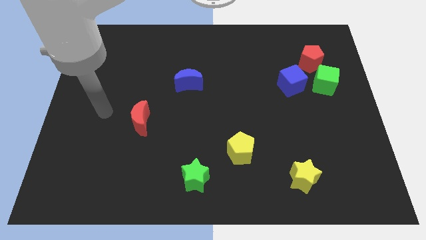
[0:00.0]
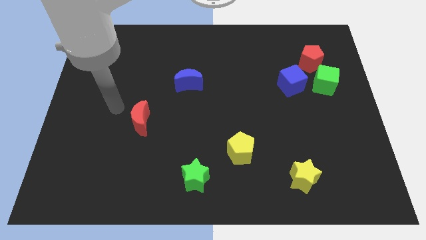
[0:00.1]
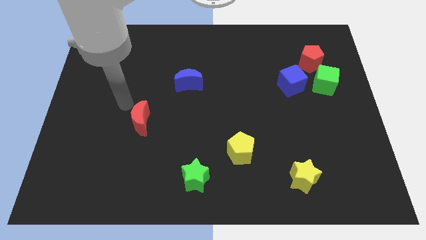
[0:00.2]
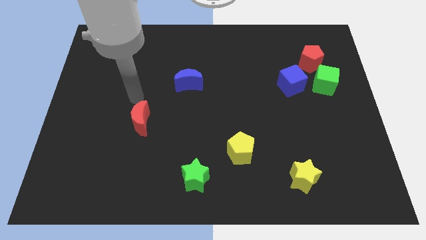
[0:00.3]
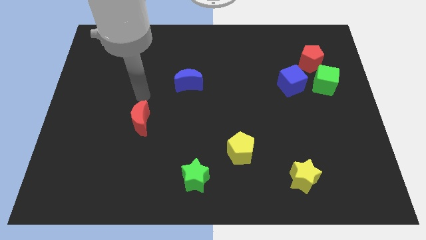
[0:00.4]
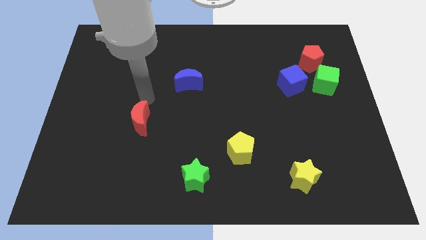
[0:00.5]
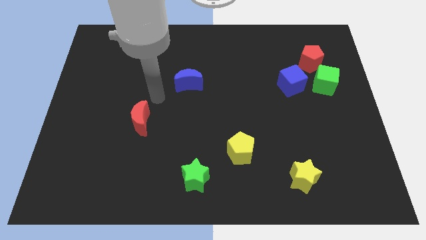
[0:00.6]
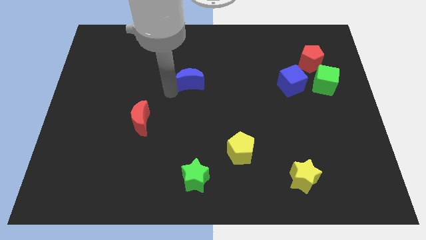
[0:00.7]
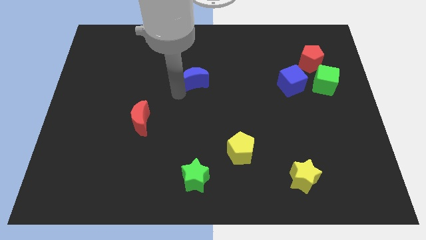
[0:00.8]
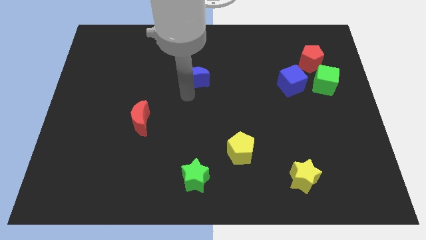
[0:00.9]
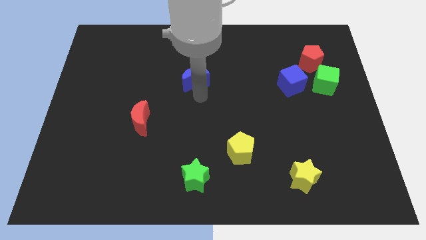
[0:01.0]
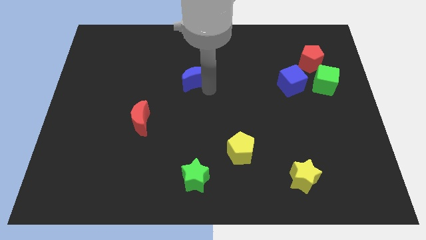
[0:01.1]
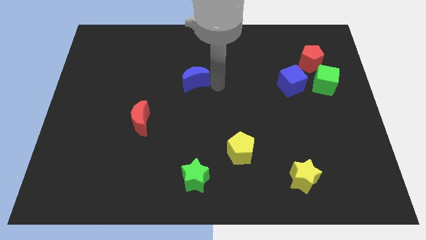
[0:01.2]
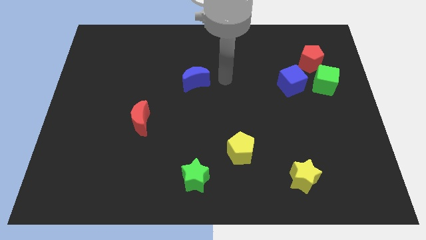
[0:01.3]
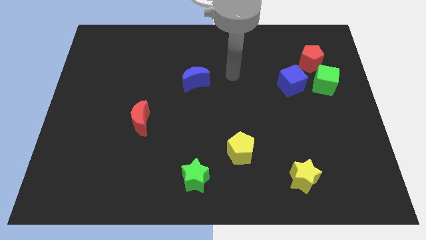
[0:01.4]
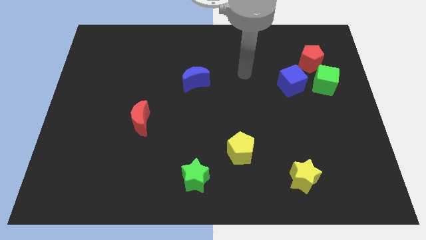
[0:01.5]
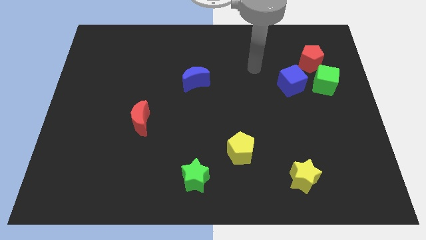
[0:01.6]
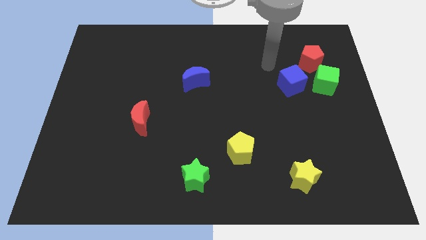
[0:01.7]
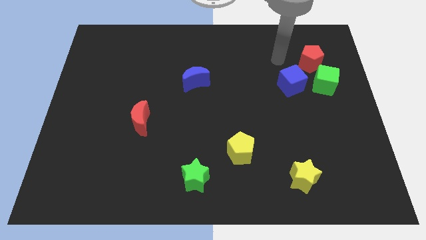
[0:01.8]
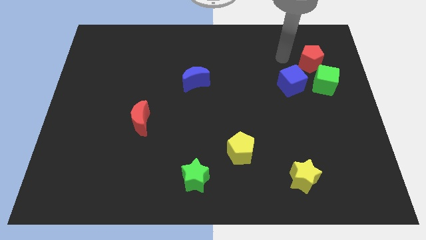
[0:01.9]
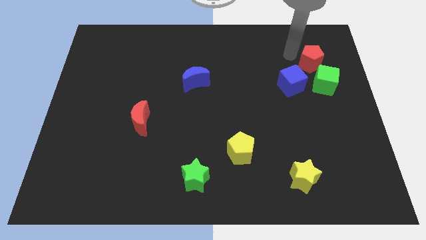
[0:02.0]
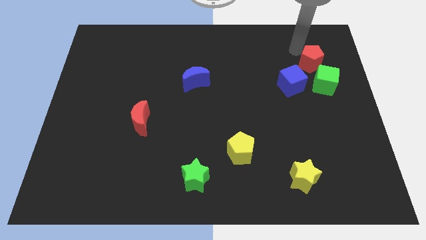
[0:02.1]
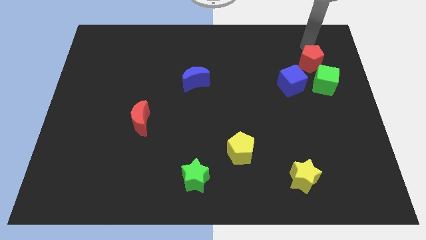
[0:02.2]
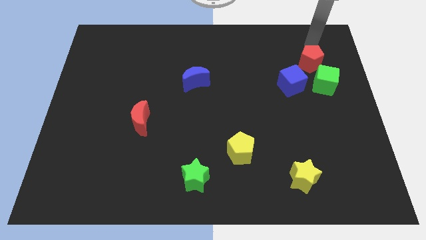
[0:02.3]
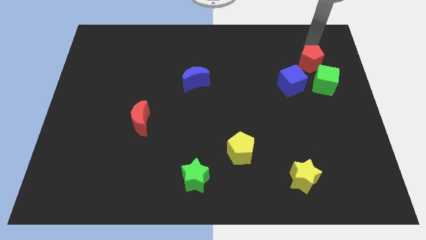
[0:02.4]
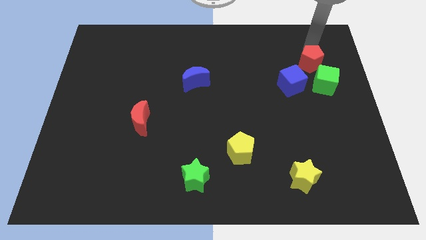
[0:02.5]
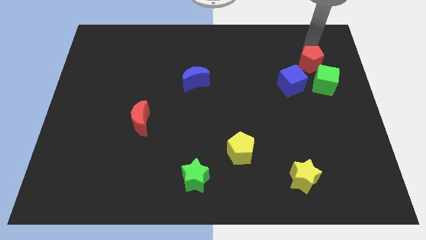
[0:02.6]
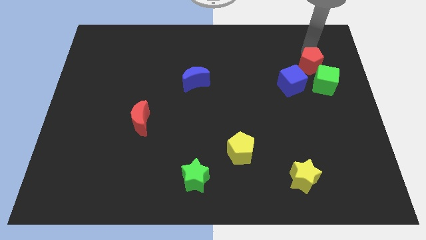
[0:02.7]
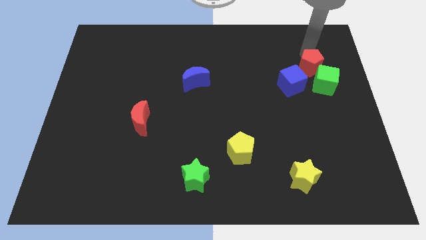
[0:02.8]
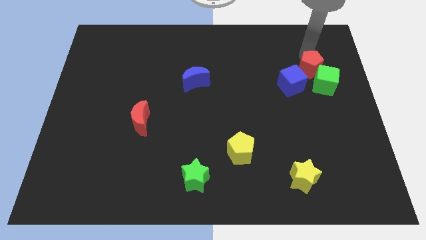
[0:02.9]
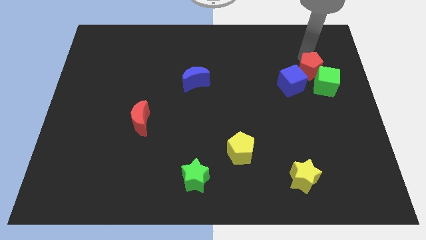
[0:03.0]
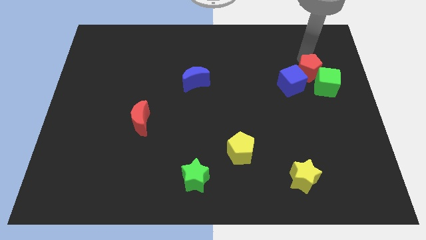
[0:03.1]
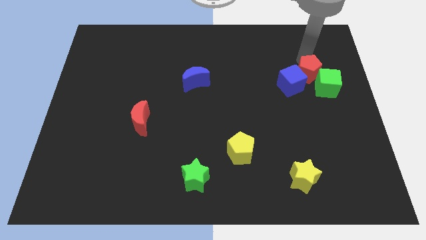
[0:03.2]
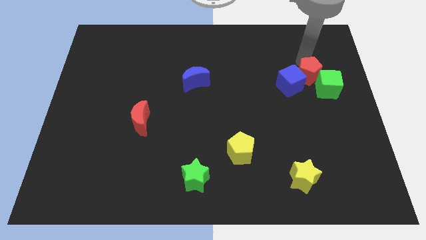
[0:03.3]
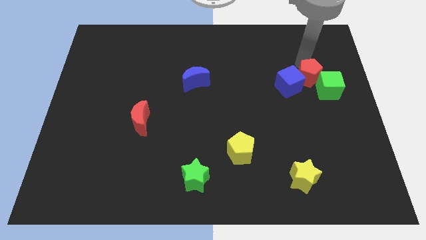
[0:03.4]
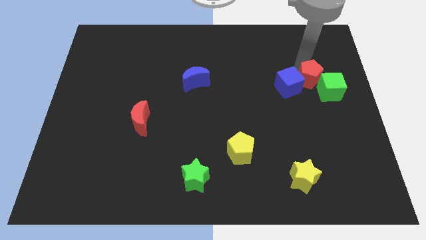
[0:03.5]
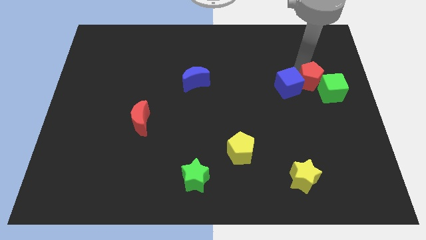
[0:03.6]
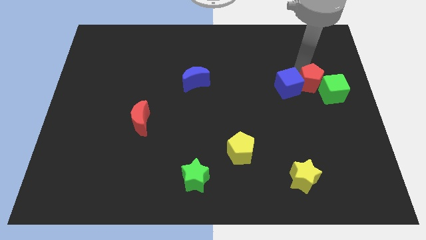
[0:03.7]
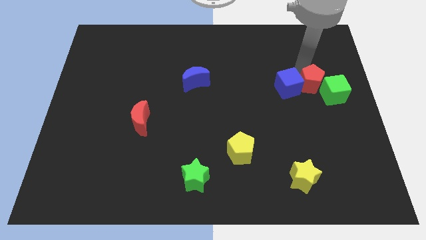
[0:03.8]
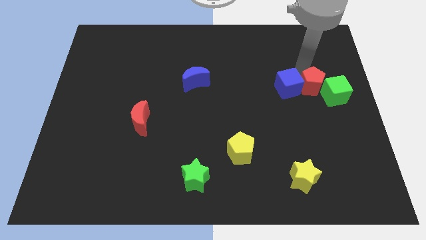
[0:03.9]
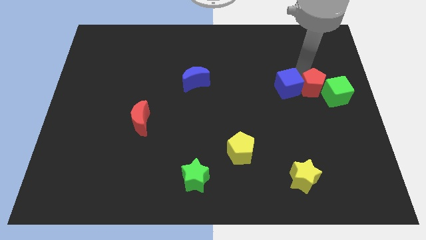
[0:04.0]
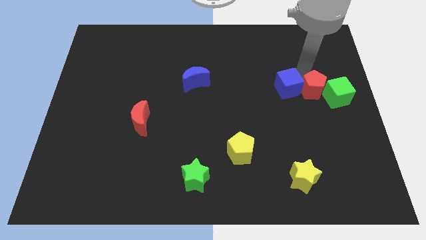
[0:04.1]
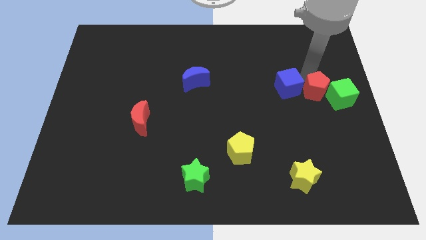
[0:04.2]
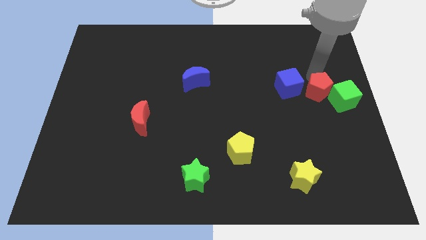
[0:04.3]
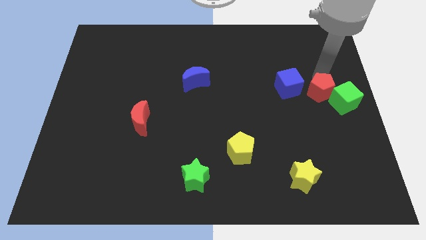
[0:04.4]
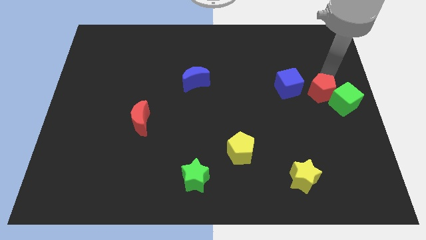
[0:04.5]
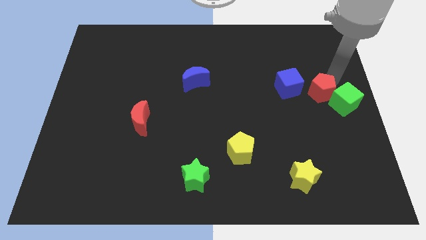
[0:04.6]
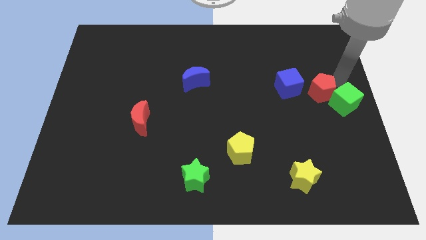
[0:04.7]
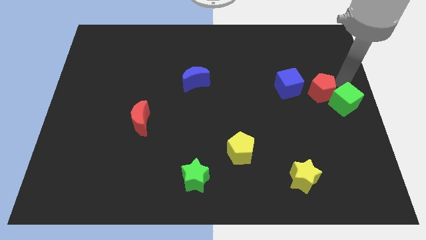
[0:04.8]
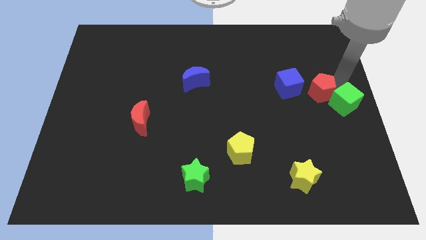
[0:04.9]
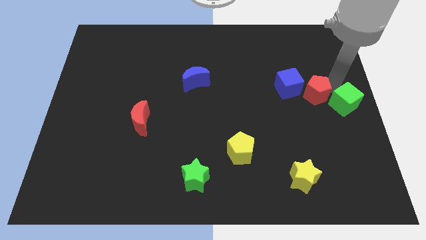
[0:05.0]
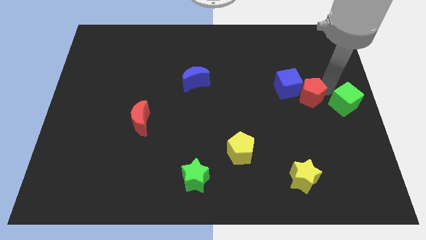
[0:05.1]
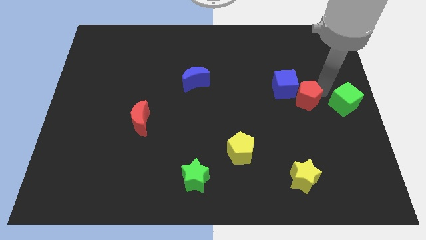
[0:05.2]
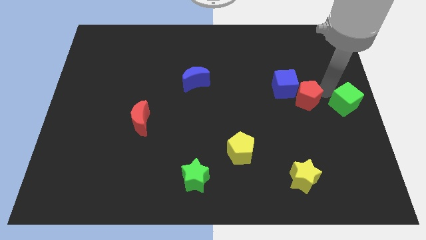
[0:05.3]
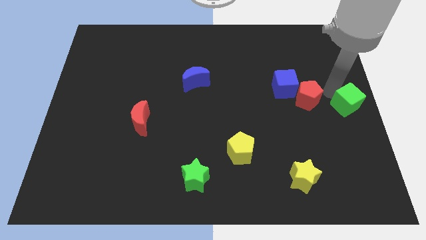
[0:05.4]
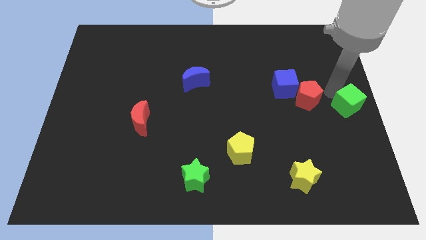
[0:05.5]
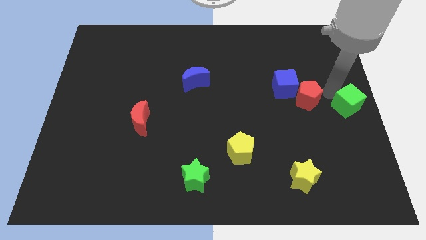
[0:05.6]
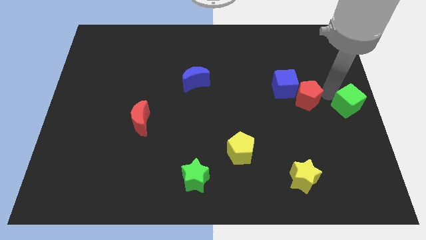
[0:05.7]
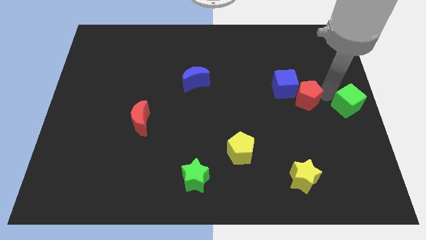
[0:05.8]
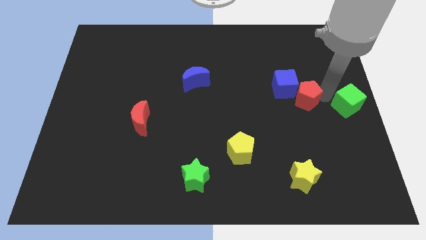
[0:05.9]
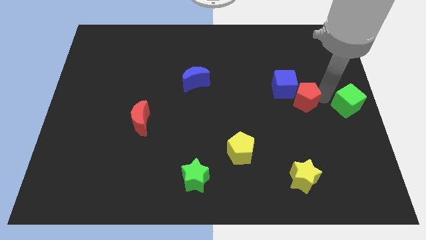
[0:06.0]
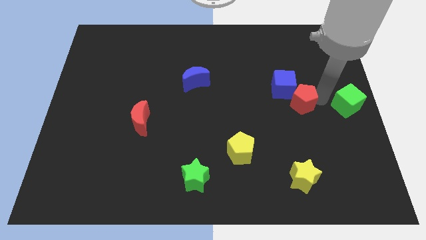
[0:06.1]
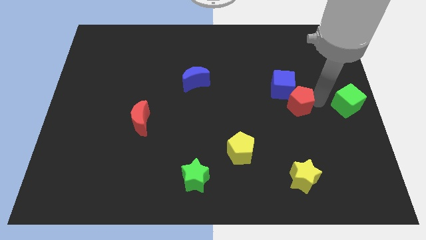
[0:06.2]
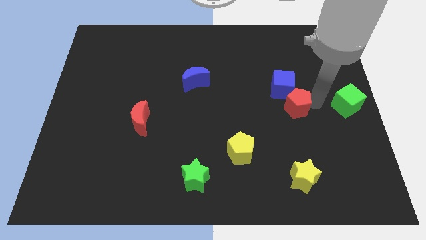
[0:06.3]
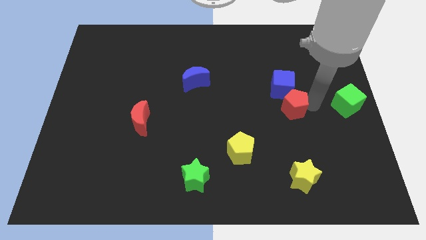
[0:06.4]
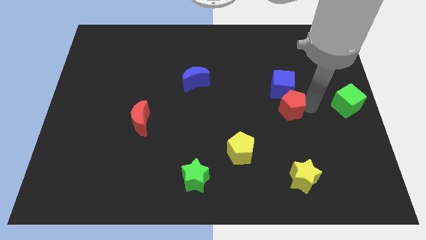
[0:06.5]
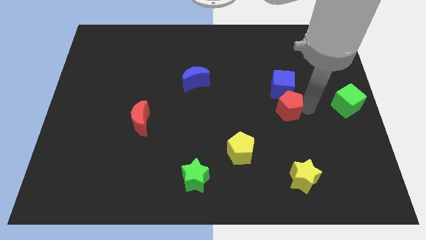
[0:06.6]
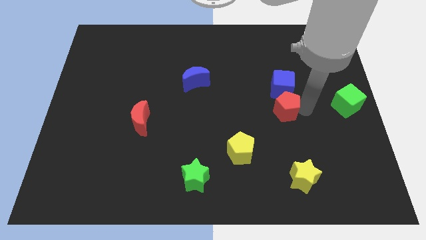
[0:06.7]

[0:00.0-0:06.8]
put the red pentagon diagonally down and to the left of the blue cube

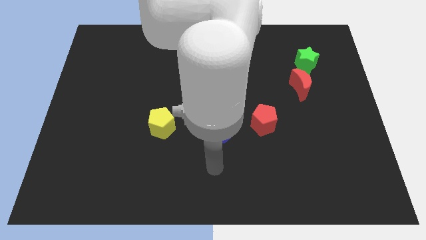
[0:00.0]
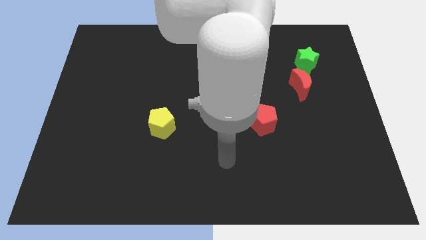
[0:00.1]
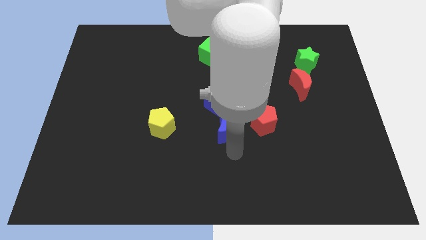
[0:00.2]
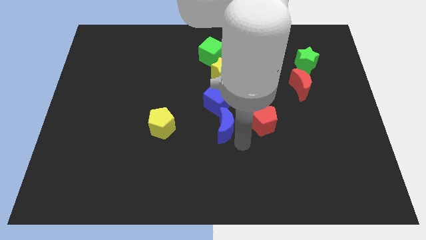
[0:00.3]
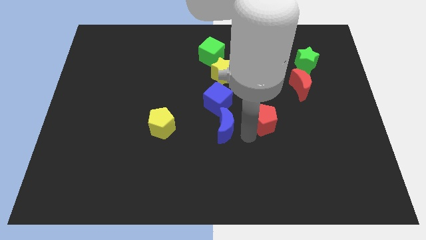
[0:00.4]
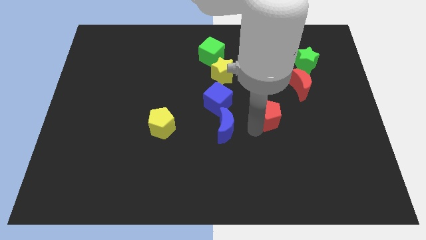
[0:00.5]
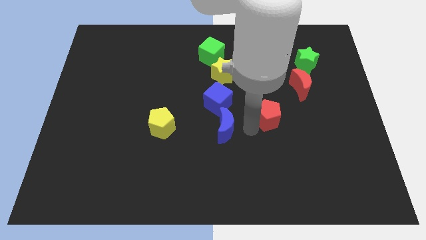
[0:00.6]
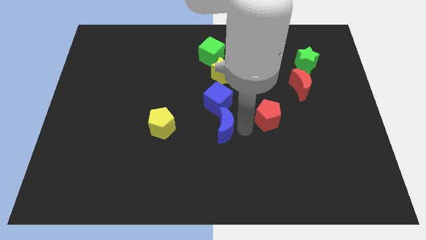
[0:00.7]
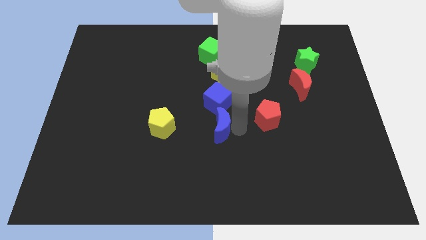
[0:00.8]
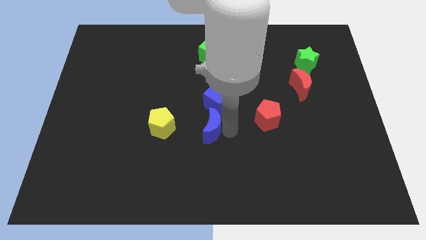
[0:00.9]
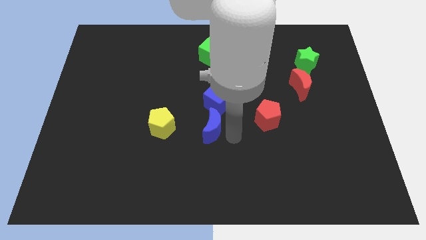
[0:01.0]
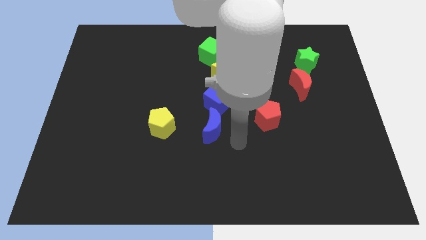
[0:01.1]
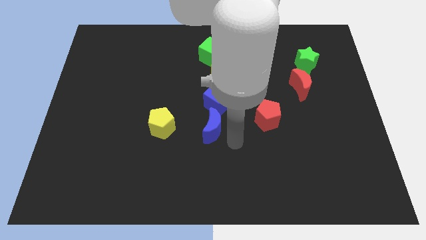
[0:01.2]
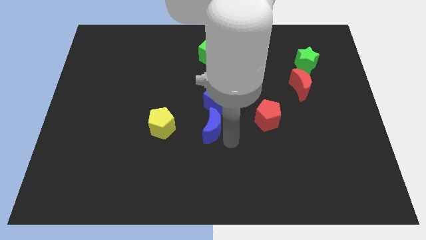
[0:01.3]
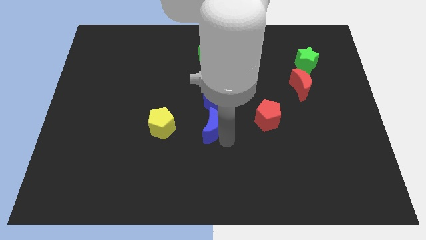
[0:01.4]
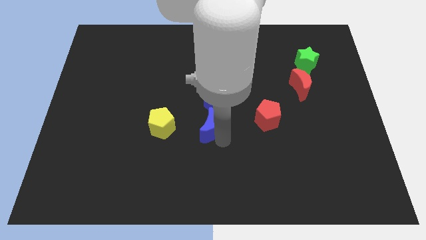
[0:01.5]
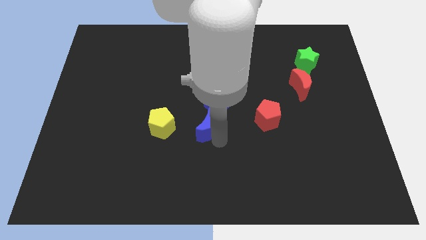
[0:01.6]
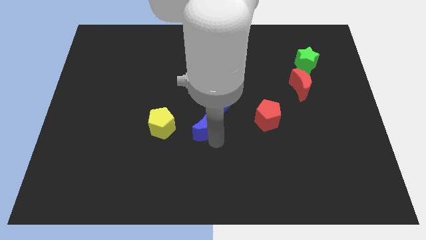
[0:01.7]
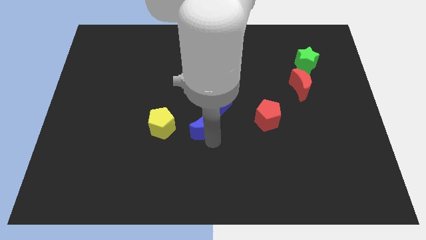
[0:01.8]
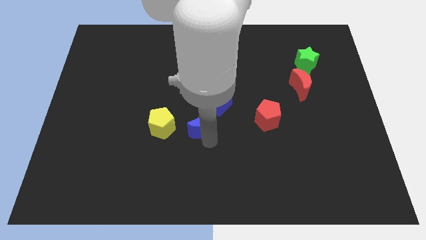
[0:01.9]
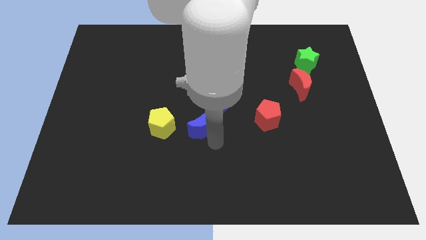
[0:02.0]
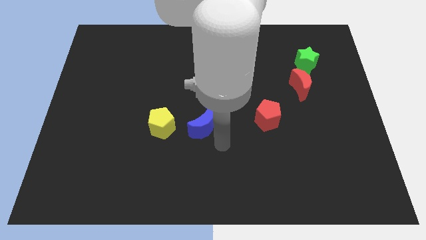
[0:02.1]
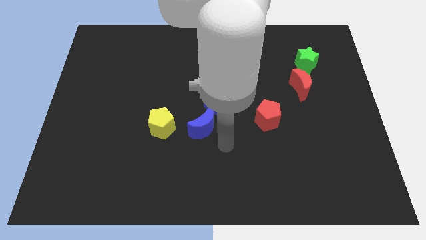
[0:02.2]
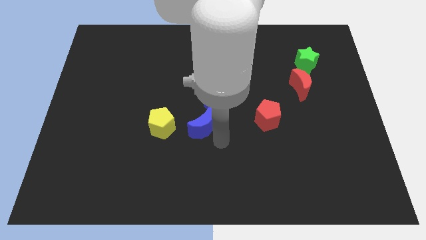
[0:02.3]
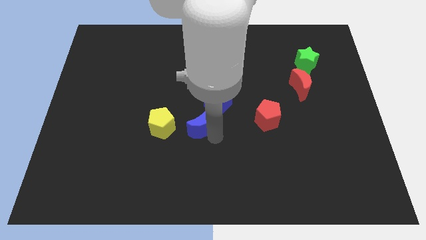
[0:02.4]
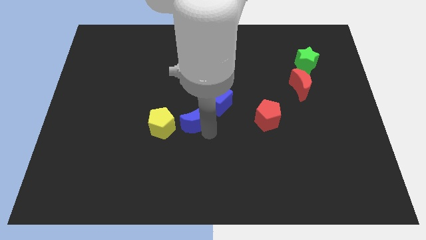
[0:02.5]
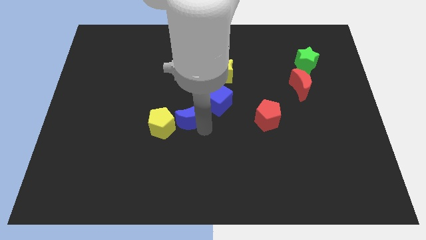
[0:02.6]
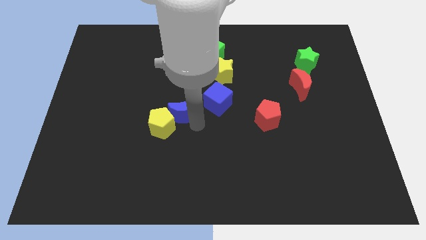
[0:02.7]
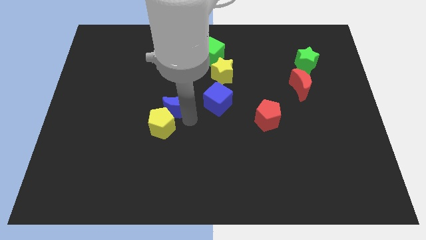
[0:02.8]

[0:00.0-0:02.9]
put the blue moon to the top of the yellow pentagon
